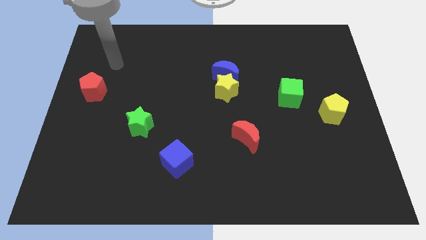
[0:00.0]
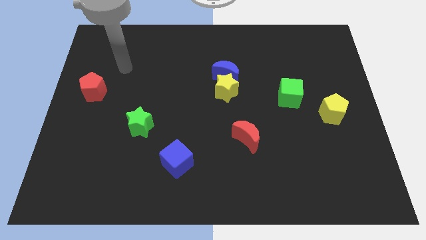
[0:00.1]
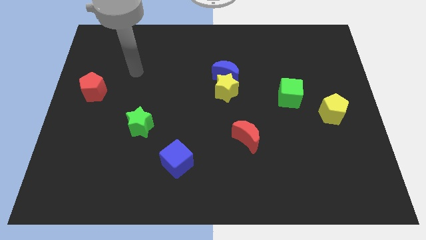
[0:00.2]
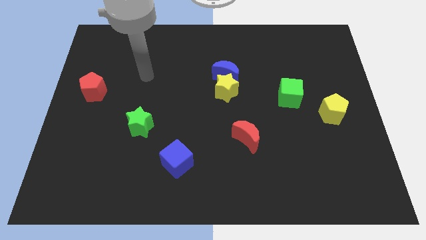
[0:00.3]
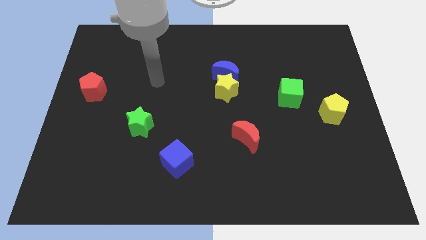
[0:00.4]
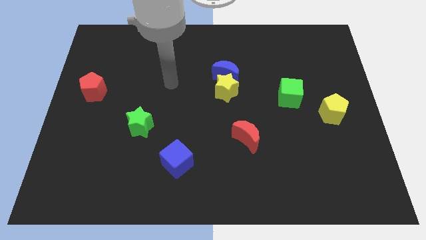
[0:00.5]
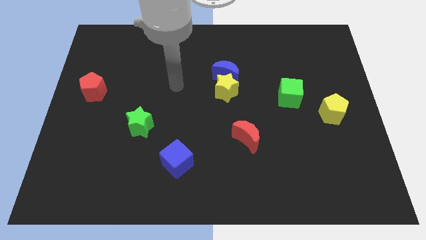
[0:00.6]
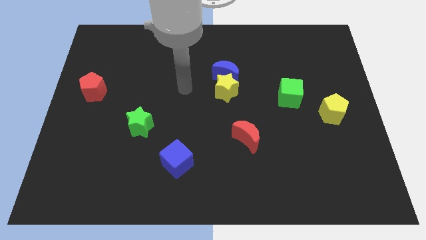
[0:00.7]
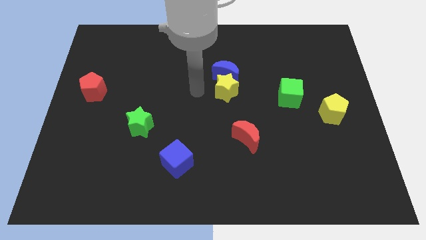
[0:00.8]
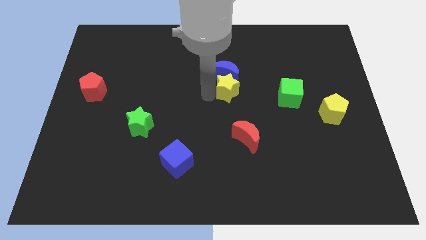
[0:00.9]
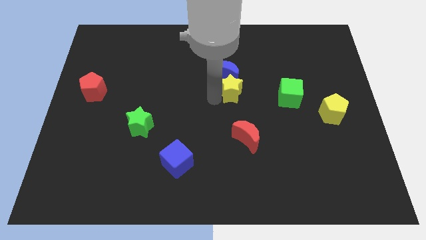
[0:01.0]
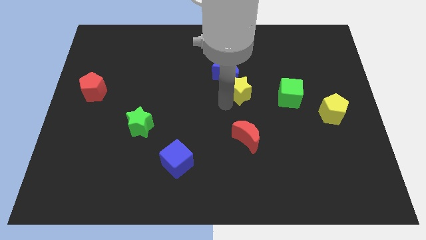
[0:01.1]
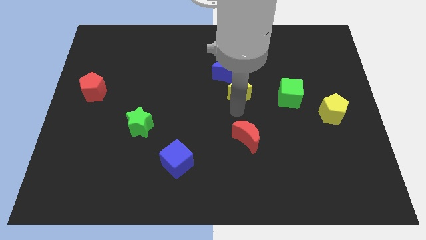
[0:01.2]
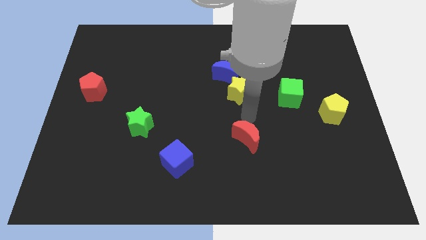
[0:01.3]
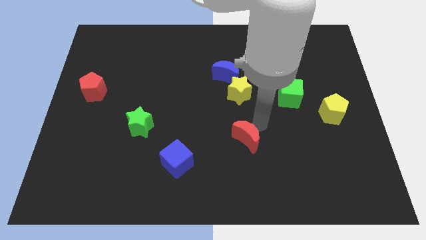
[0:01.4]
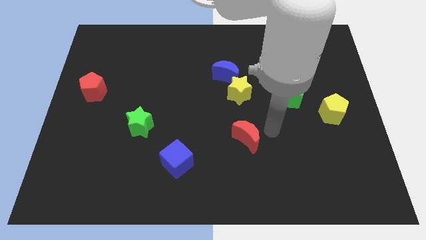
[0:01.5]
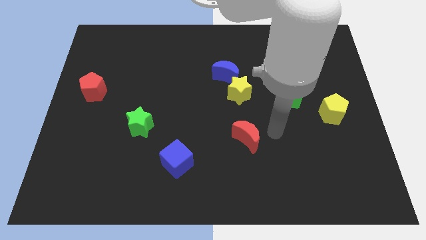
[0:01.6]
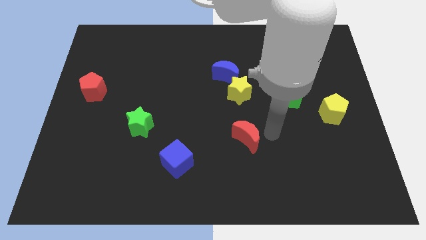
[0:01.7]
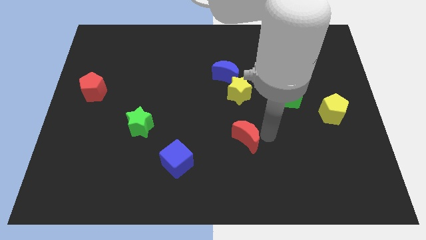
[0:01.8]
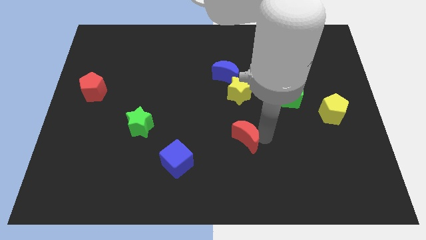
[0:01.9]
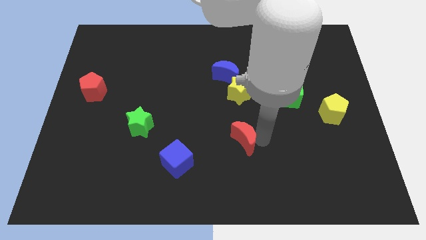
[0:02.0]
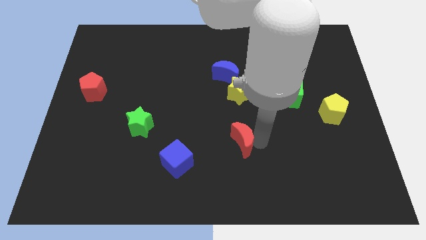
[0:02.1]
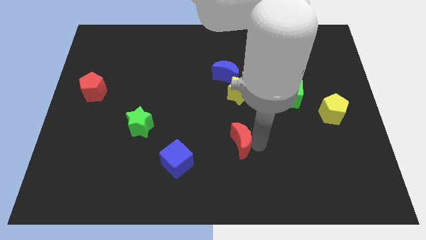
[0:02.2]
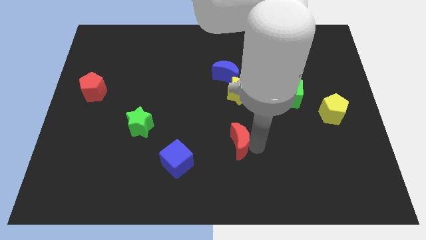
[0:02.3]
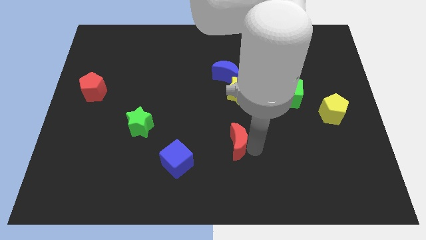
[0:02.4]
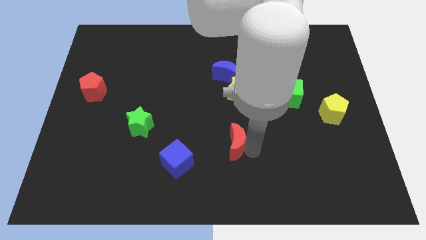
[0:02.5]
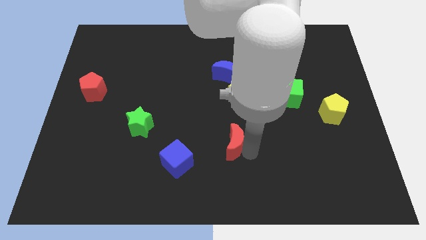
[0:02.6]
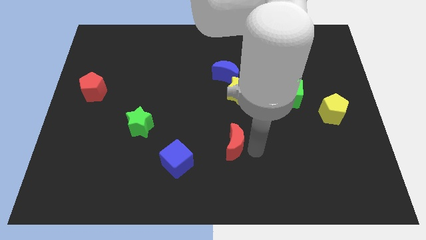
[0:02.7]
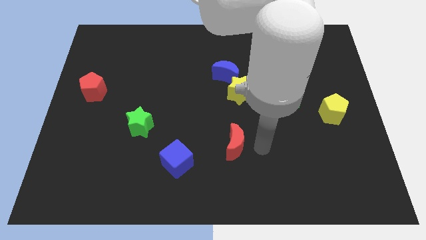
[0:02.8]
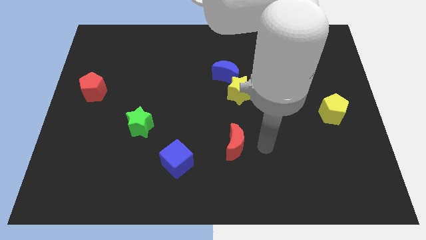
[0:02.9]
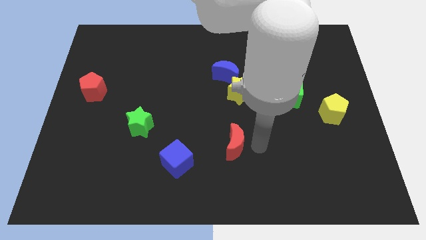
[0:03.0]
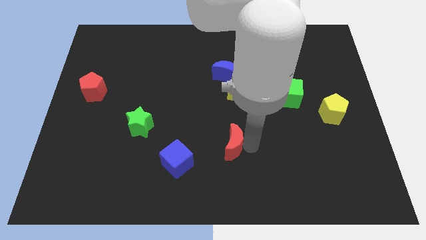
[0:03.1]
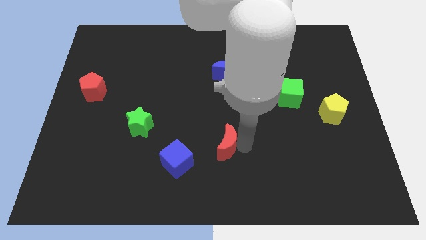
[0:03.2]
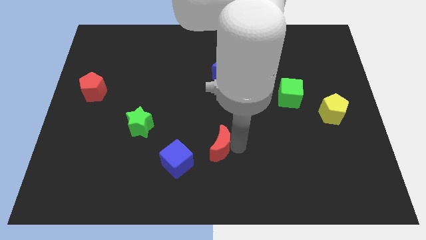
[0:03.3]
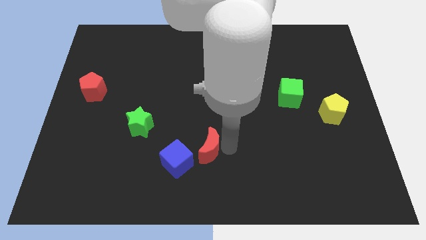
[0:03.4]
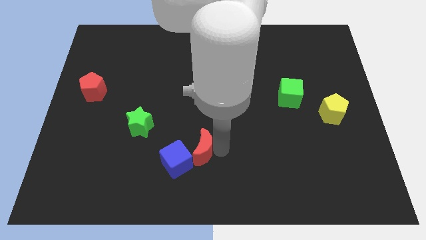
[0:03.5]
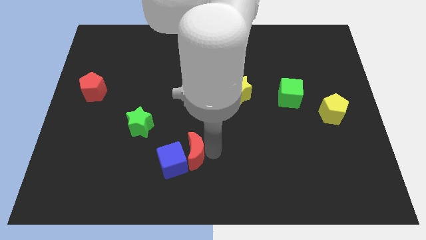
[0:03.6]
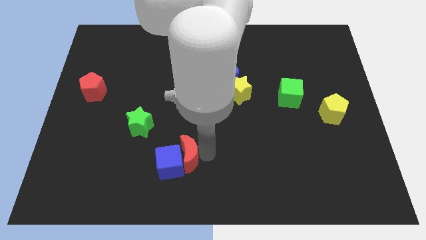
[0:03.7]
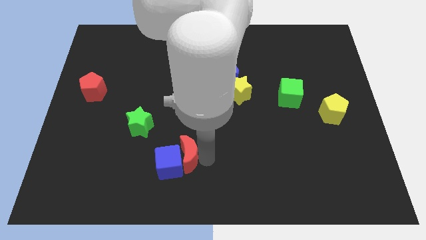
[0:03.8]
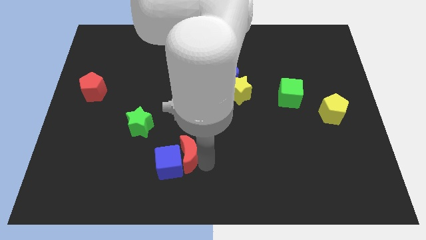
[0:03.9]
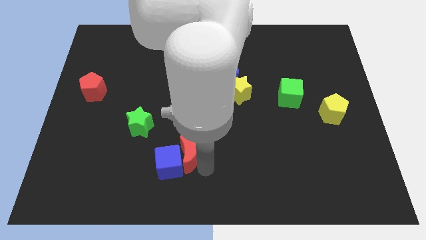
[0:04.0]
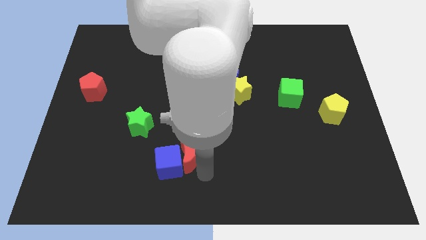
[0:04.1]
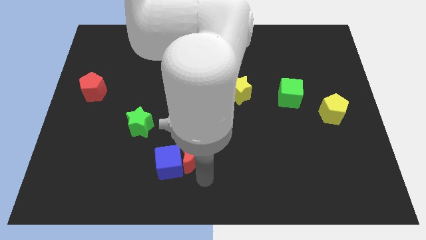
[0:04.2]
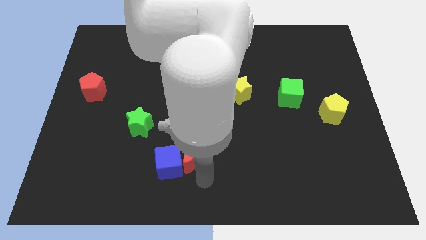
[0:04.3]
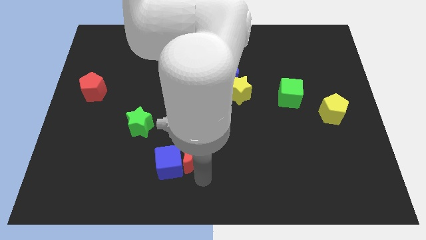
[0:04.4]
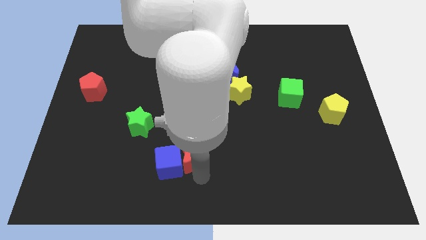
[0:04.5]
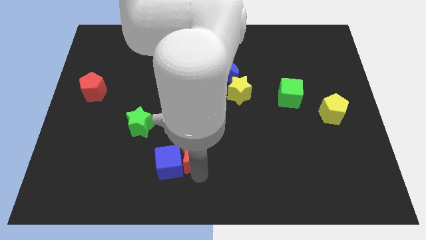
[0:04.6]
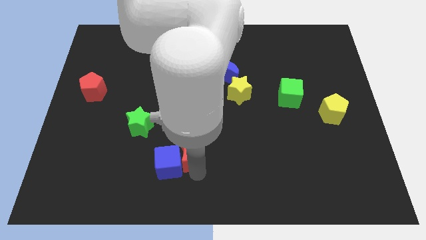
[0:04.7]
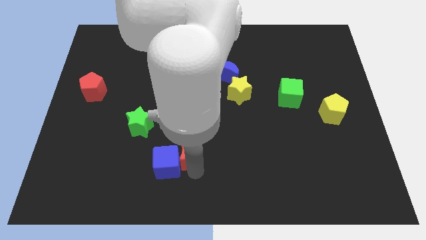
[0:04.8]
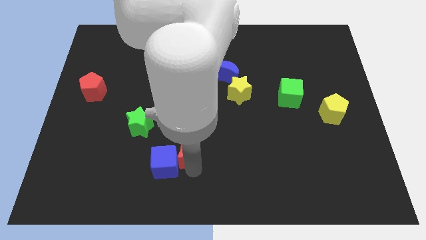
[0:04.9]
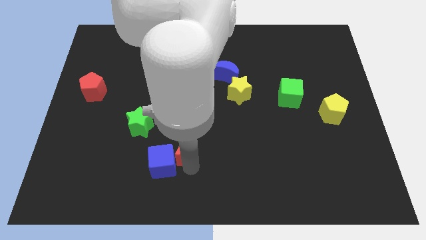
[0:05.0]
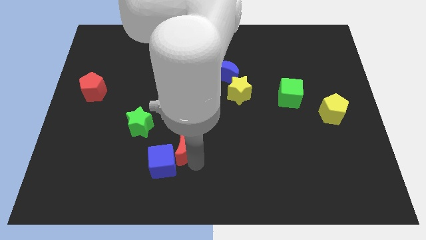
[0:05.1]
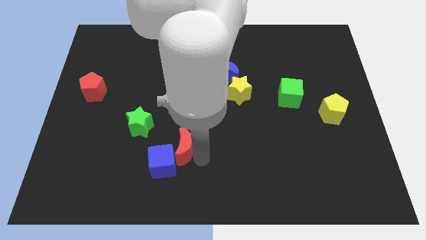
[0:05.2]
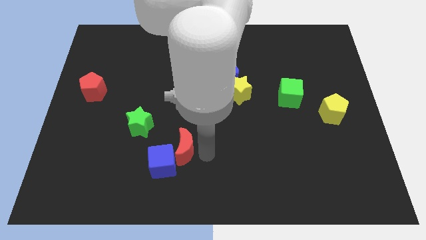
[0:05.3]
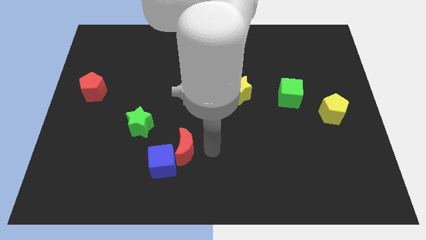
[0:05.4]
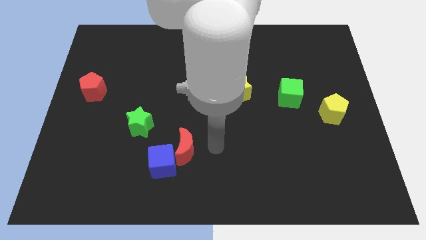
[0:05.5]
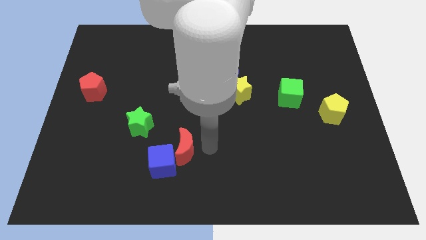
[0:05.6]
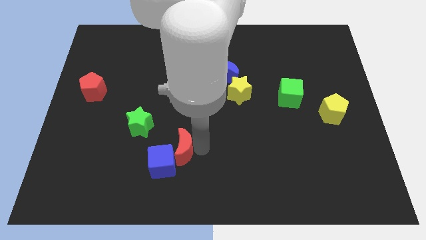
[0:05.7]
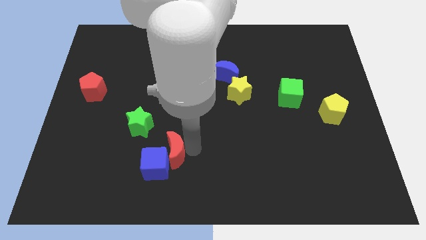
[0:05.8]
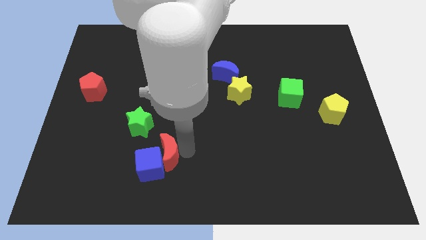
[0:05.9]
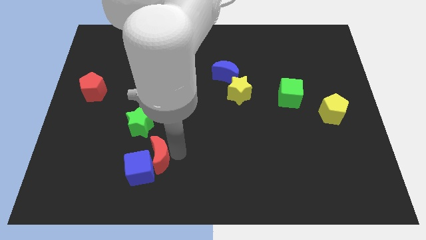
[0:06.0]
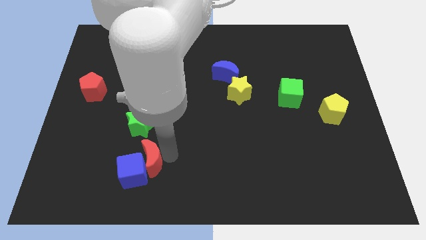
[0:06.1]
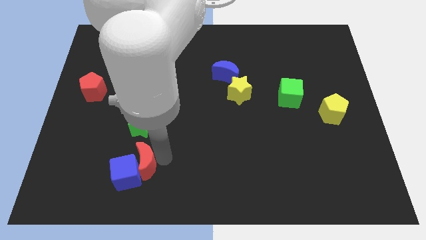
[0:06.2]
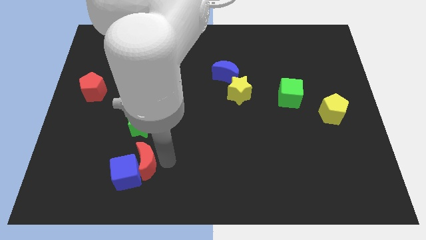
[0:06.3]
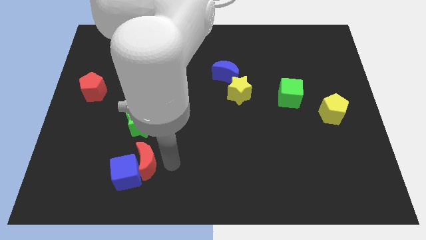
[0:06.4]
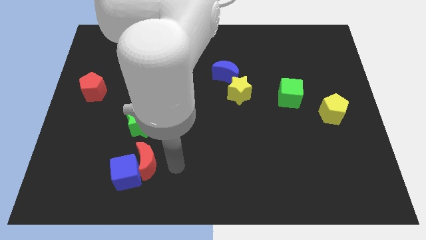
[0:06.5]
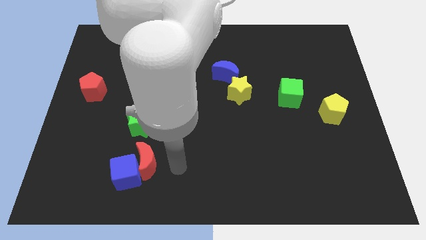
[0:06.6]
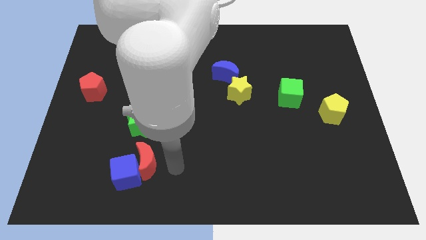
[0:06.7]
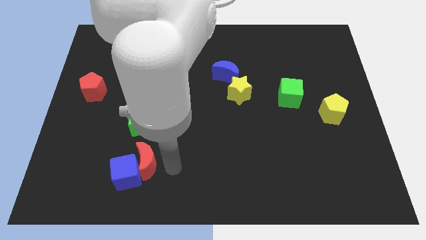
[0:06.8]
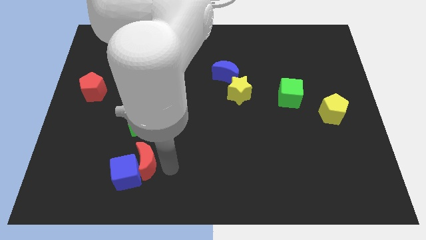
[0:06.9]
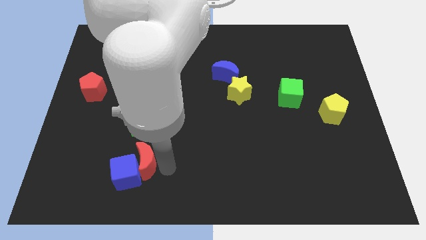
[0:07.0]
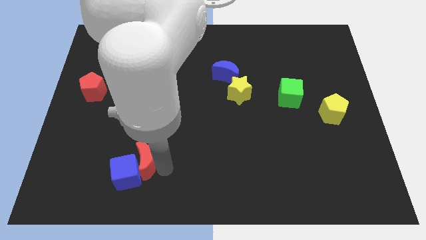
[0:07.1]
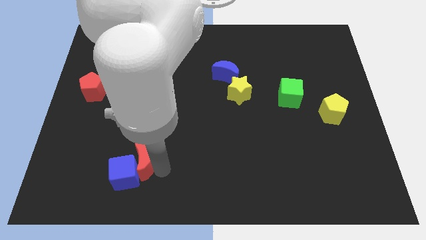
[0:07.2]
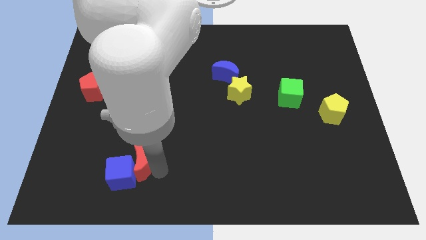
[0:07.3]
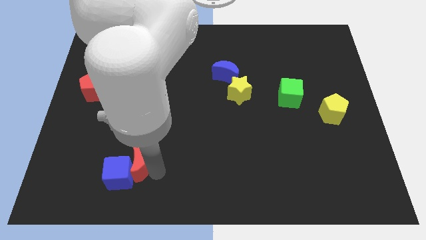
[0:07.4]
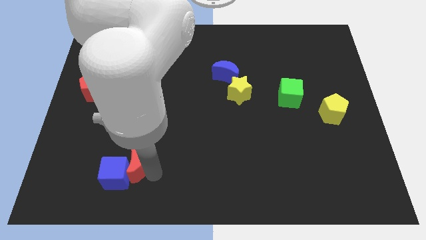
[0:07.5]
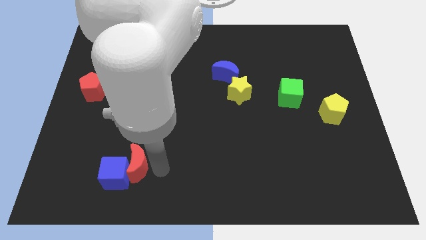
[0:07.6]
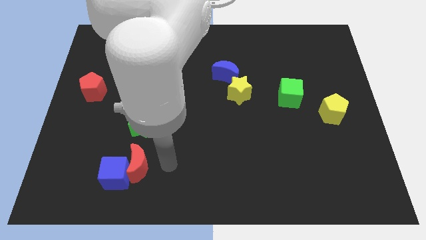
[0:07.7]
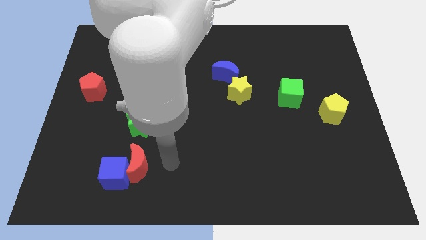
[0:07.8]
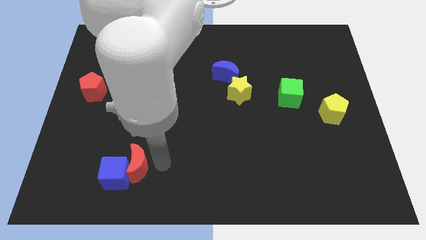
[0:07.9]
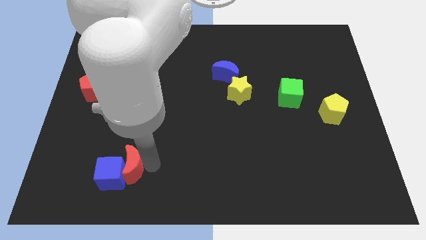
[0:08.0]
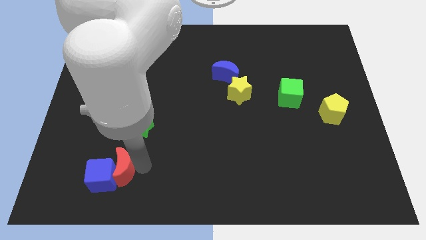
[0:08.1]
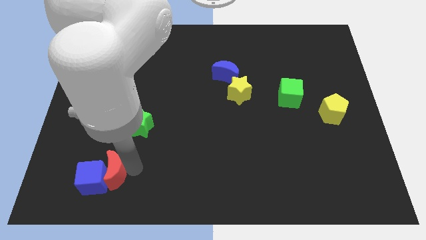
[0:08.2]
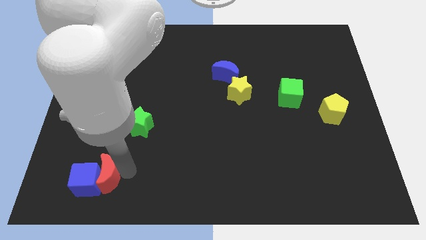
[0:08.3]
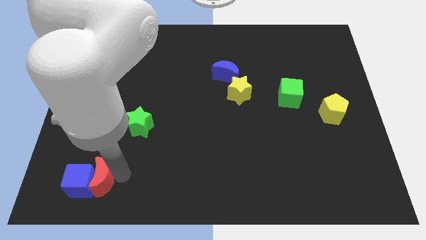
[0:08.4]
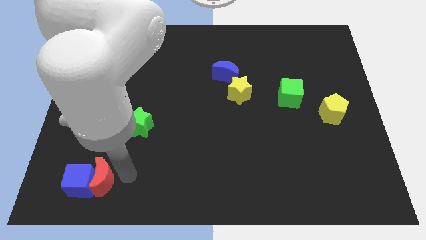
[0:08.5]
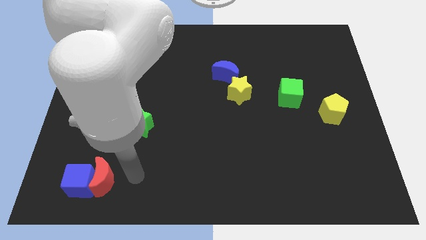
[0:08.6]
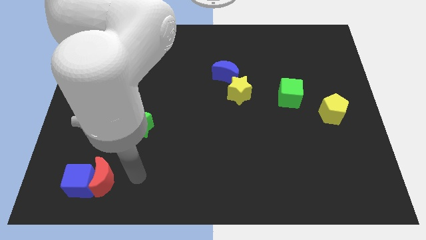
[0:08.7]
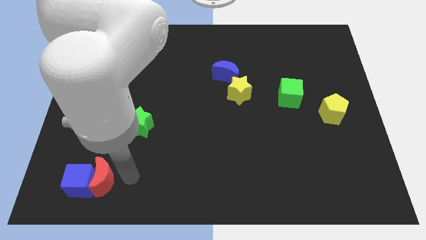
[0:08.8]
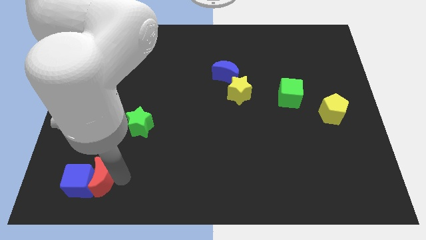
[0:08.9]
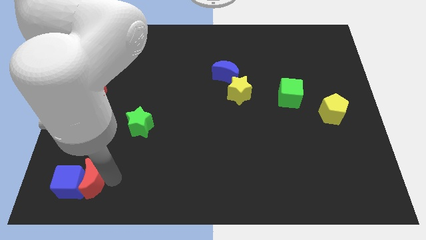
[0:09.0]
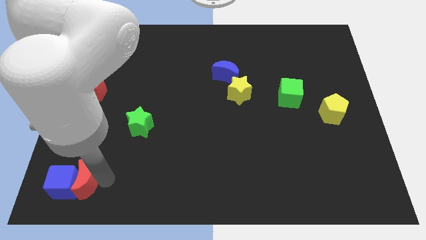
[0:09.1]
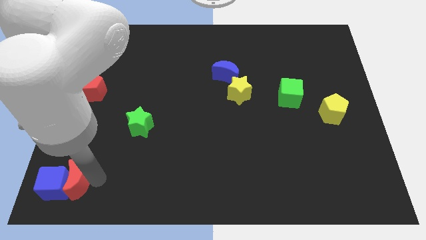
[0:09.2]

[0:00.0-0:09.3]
move the red moon to the bottom left
